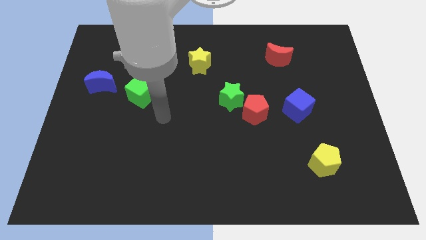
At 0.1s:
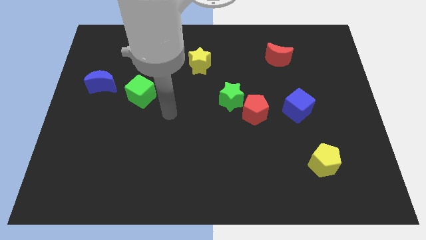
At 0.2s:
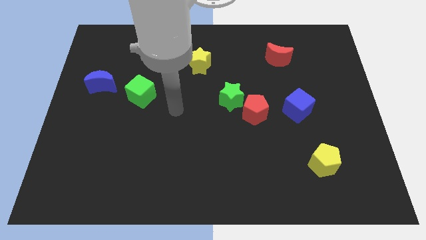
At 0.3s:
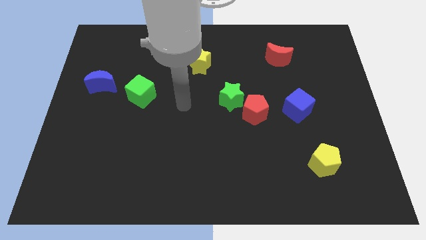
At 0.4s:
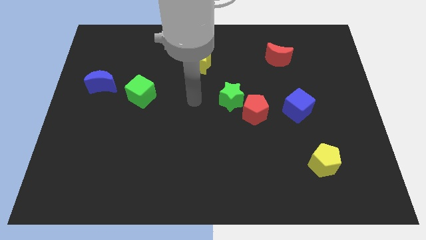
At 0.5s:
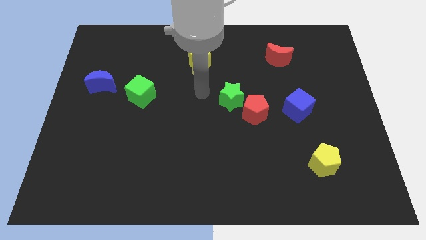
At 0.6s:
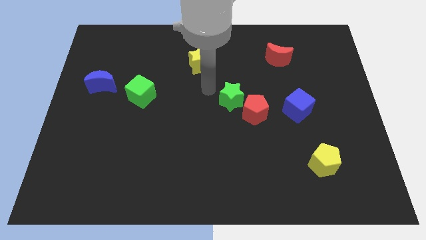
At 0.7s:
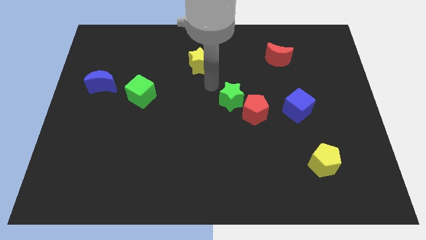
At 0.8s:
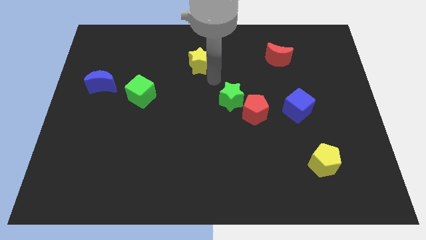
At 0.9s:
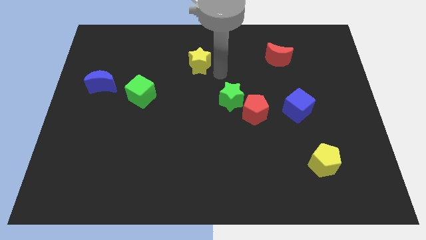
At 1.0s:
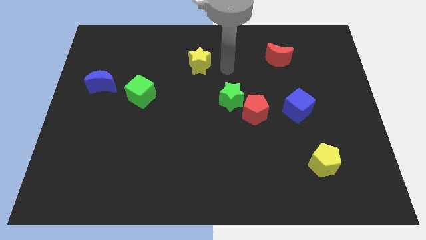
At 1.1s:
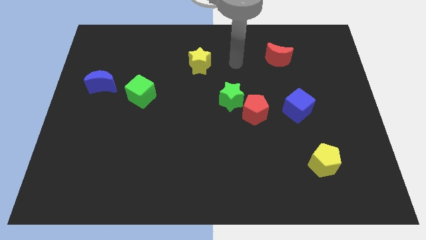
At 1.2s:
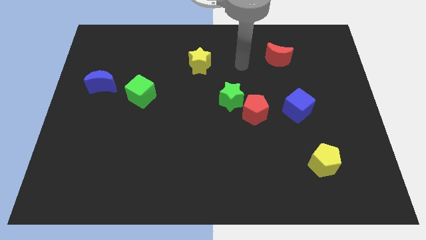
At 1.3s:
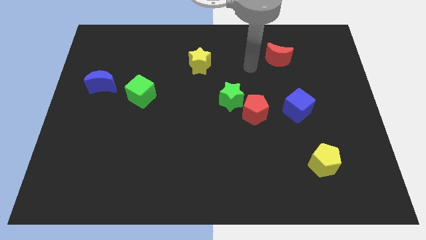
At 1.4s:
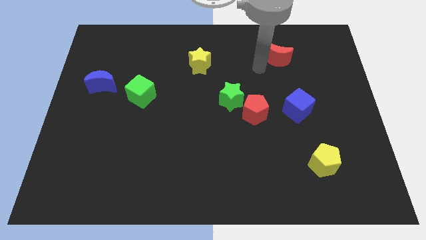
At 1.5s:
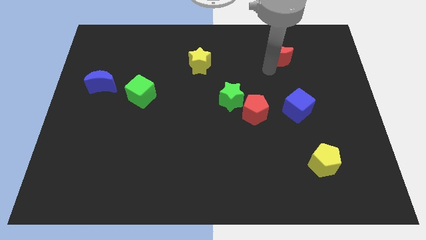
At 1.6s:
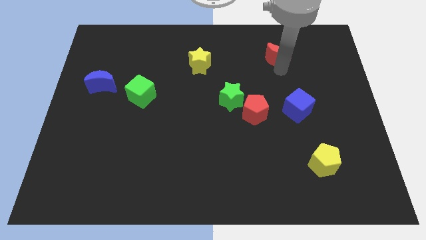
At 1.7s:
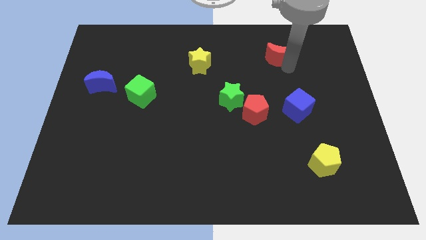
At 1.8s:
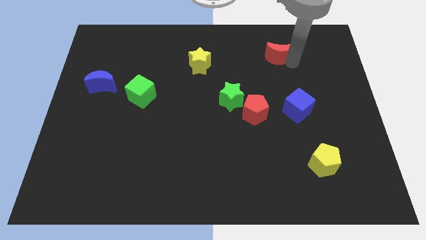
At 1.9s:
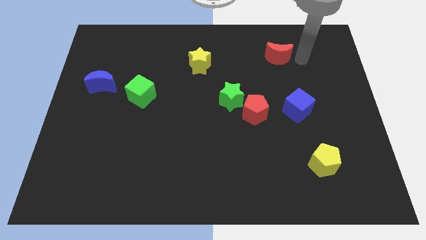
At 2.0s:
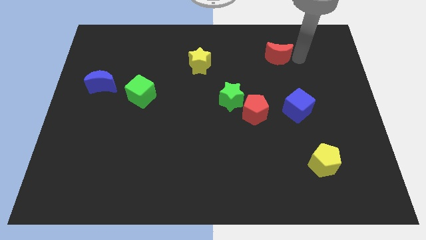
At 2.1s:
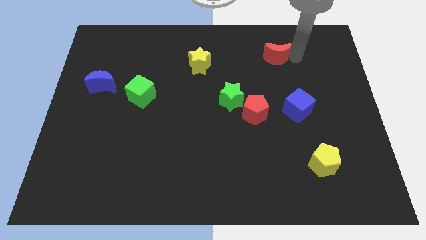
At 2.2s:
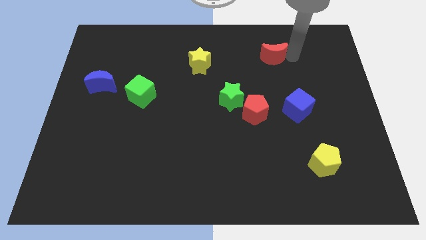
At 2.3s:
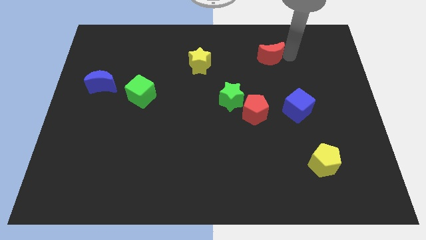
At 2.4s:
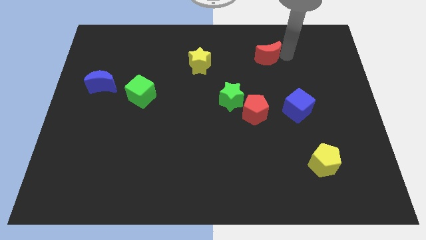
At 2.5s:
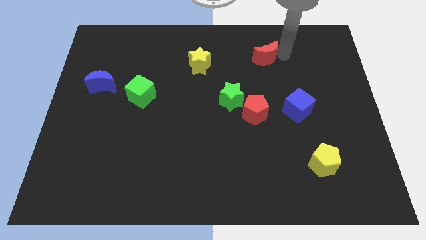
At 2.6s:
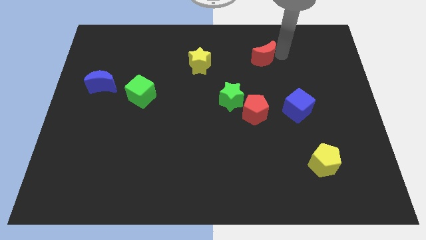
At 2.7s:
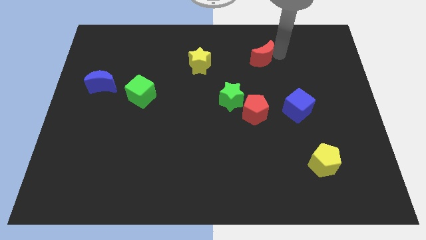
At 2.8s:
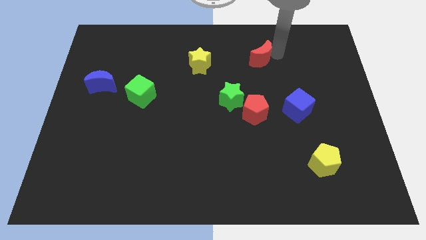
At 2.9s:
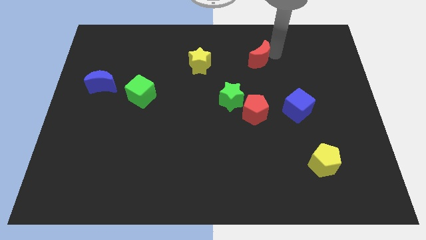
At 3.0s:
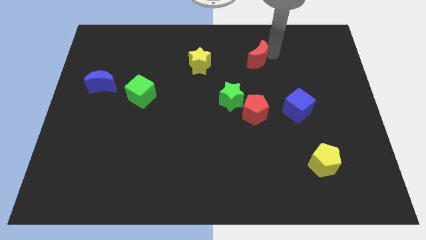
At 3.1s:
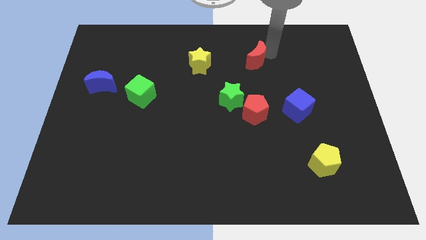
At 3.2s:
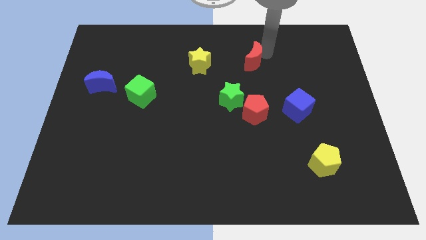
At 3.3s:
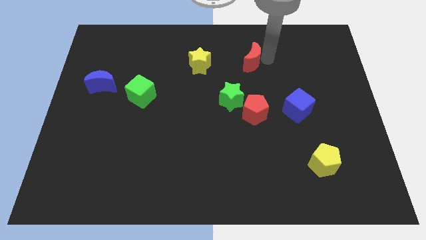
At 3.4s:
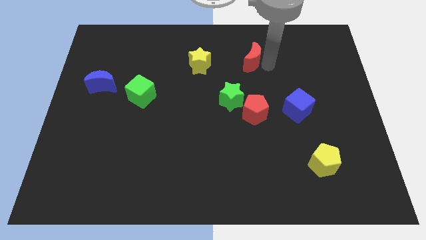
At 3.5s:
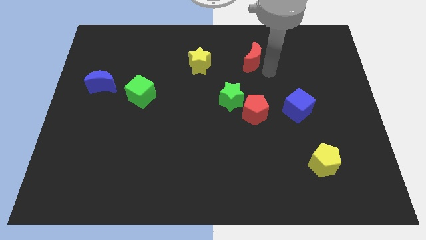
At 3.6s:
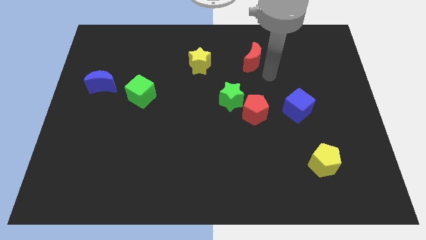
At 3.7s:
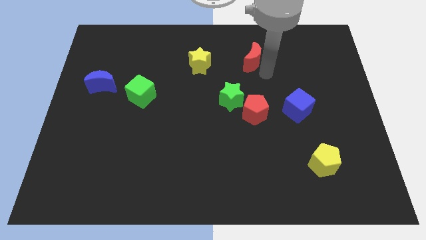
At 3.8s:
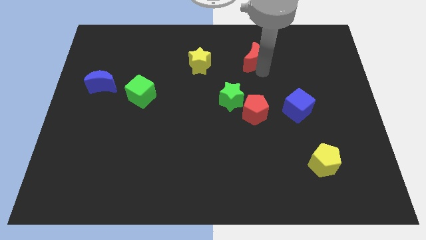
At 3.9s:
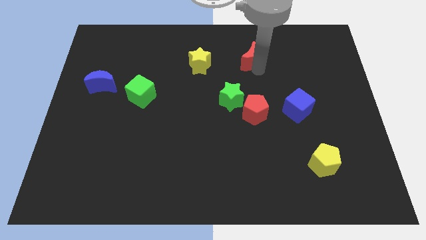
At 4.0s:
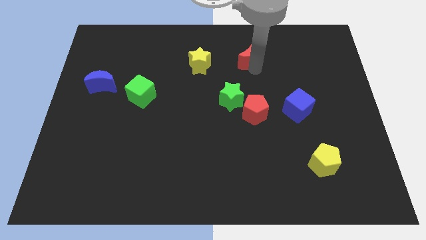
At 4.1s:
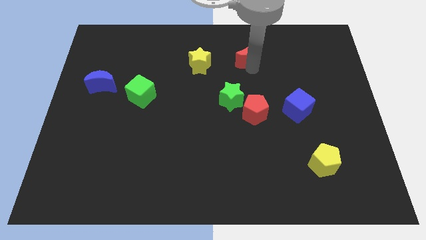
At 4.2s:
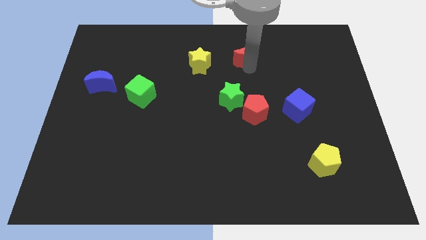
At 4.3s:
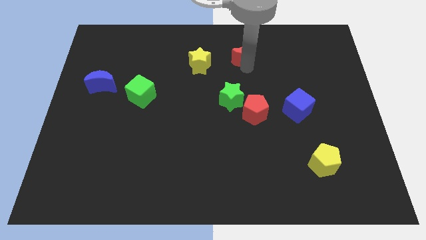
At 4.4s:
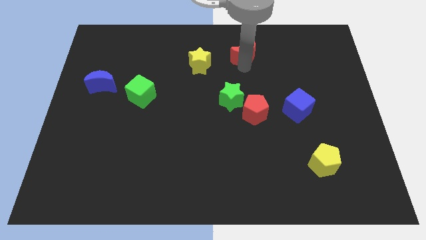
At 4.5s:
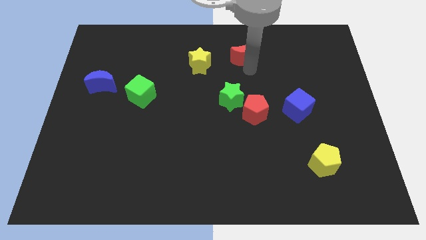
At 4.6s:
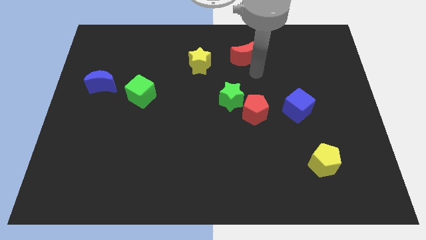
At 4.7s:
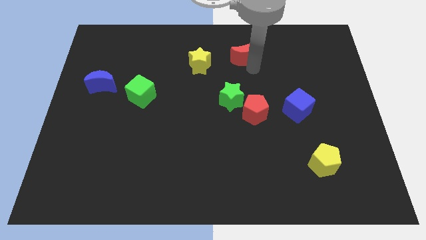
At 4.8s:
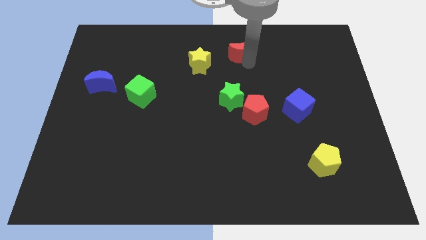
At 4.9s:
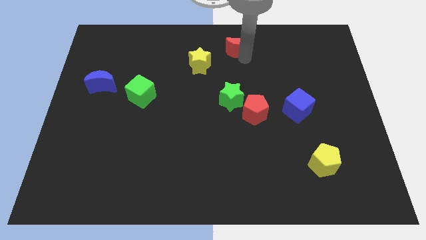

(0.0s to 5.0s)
slide the red moon to the towards your base

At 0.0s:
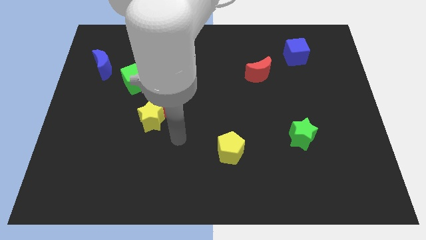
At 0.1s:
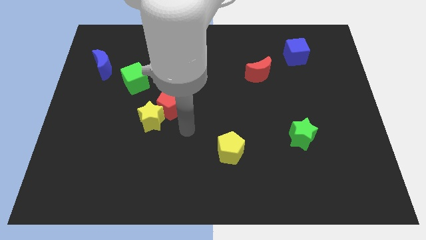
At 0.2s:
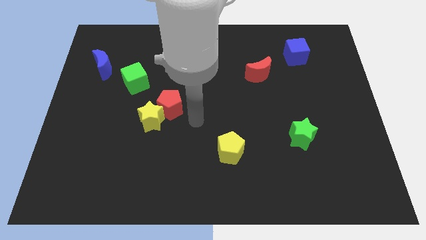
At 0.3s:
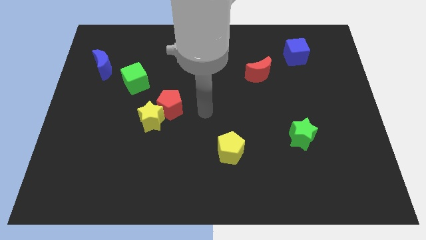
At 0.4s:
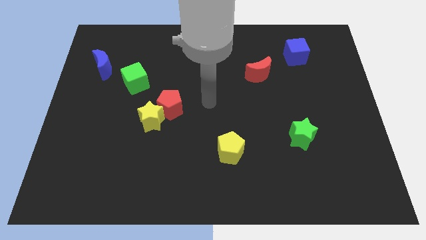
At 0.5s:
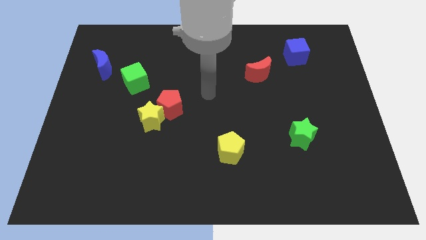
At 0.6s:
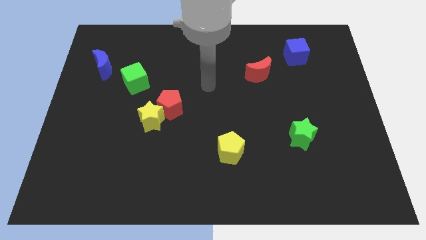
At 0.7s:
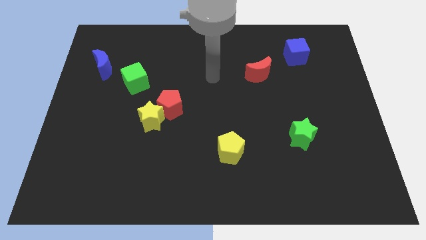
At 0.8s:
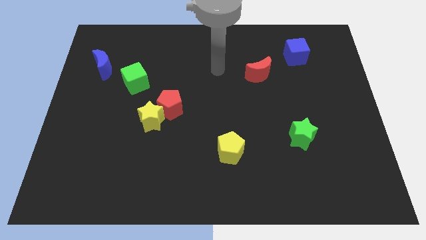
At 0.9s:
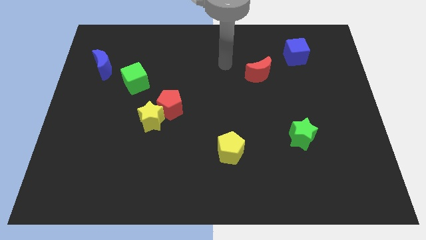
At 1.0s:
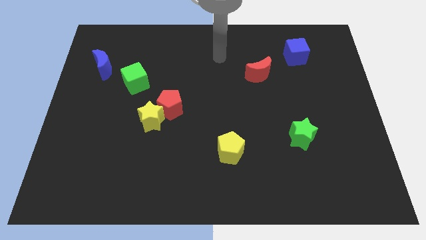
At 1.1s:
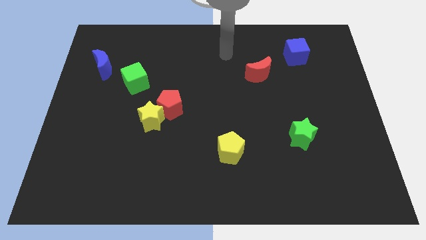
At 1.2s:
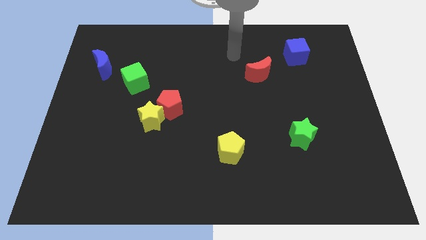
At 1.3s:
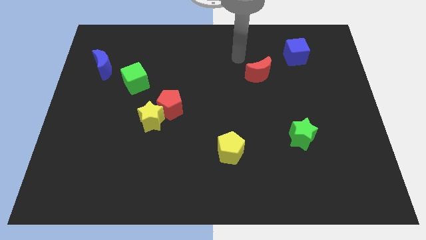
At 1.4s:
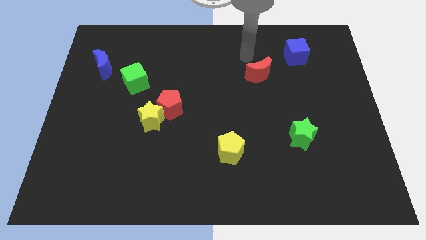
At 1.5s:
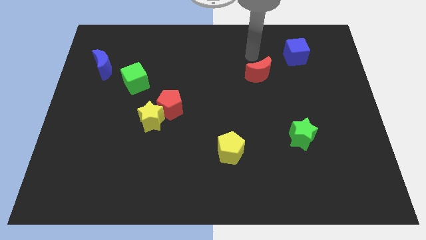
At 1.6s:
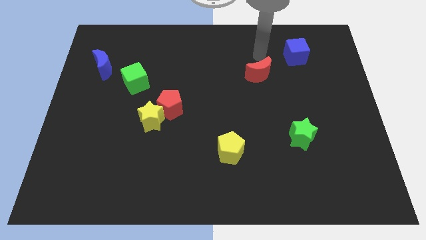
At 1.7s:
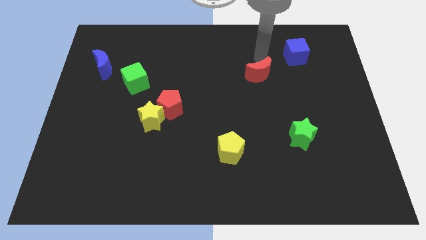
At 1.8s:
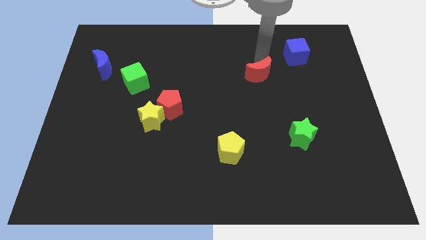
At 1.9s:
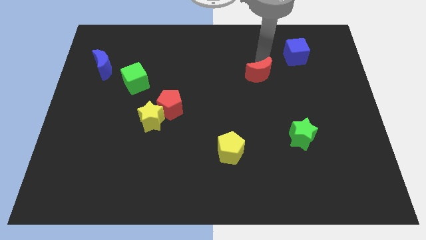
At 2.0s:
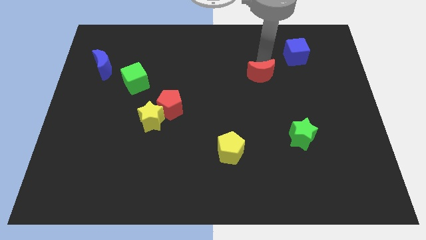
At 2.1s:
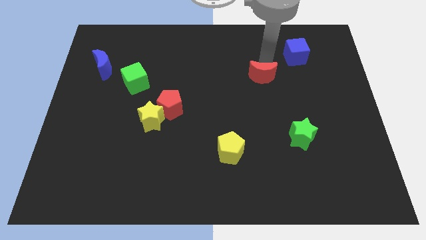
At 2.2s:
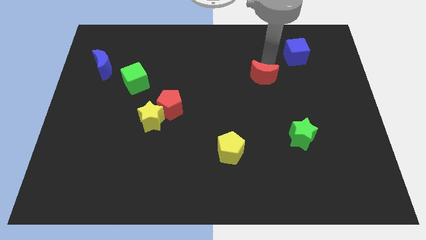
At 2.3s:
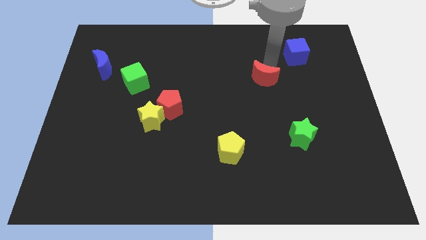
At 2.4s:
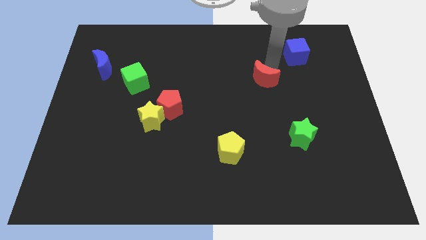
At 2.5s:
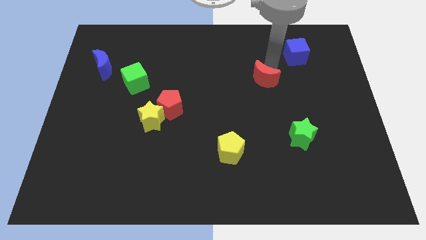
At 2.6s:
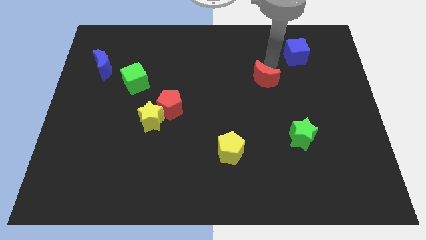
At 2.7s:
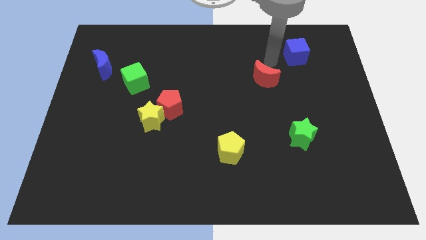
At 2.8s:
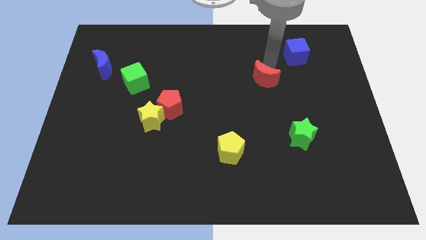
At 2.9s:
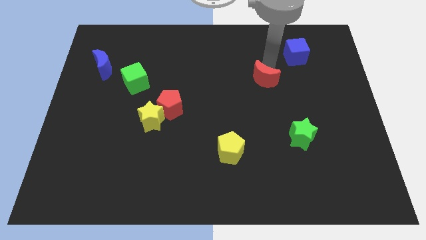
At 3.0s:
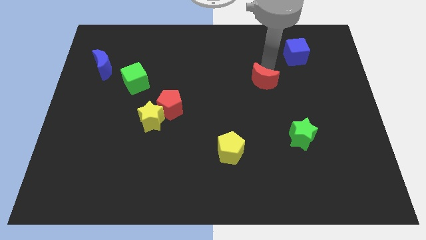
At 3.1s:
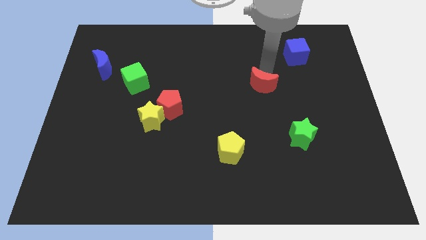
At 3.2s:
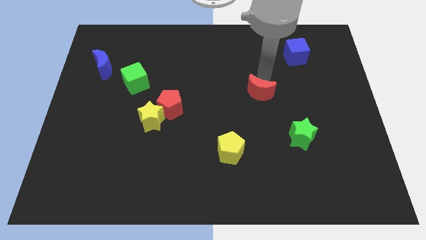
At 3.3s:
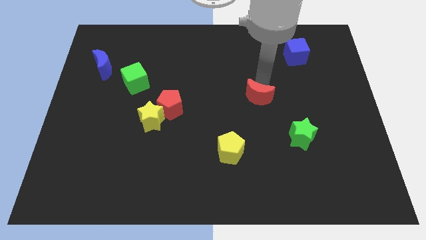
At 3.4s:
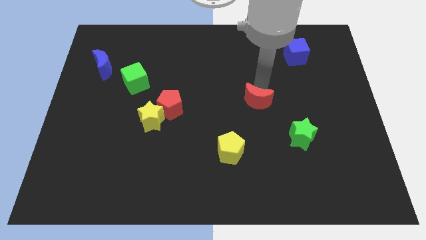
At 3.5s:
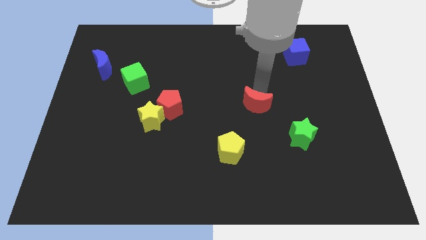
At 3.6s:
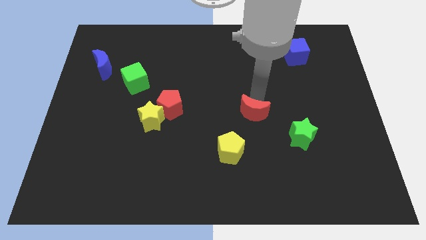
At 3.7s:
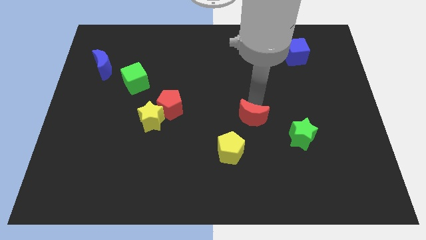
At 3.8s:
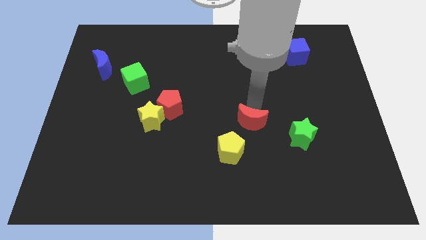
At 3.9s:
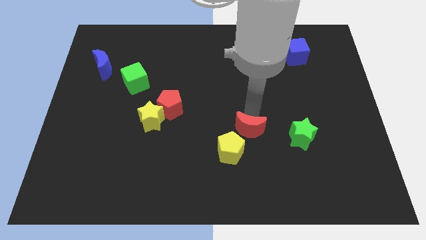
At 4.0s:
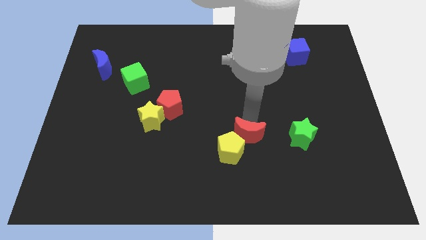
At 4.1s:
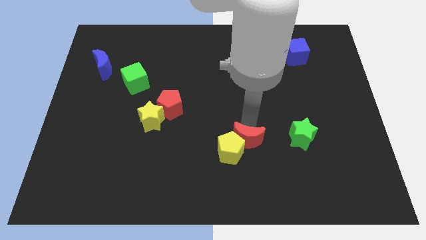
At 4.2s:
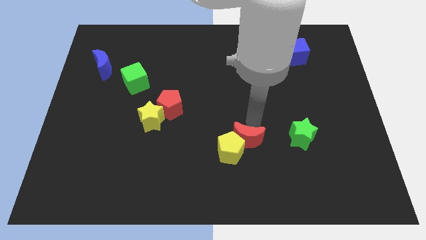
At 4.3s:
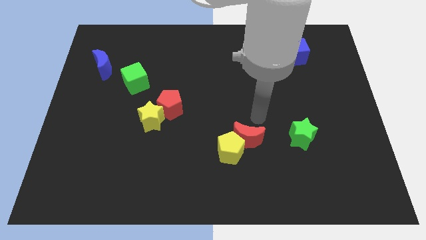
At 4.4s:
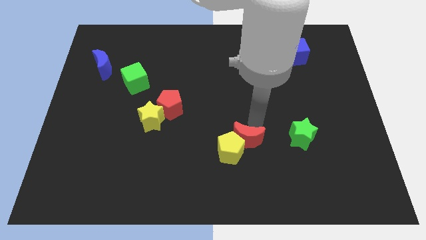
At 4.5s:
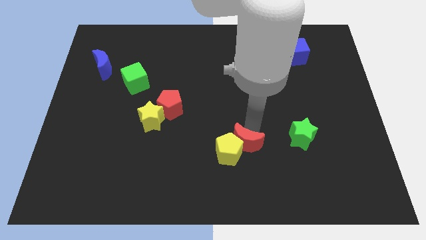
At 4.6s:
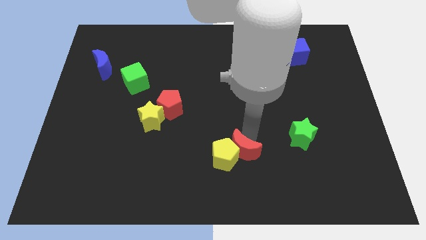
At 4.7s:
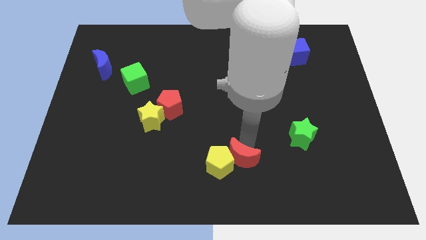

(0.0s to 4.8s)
move the red moon to the bottom side
